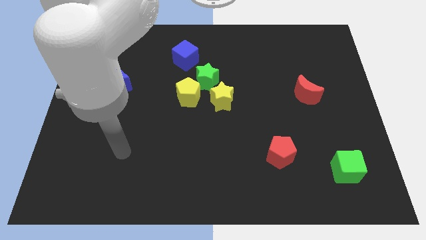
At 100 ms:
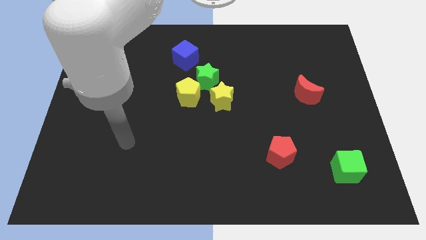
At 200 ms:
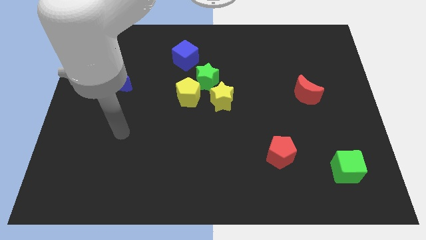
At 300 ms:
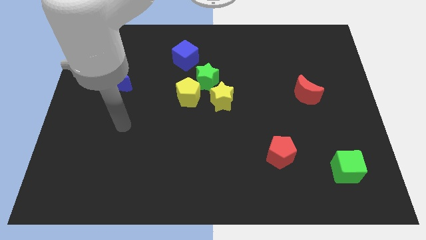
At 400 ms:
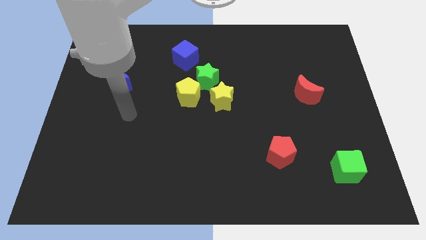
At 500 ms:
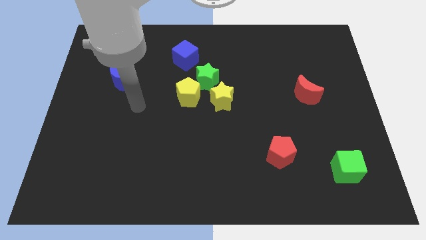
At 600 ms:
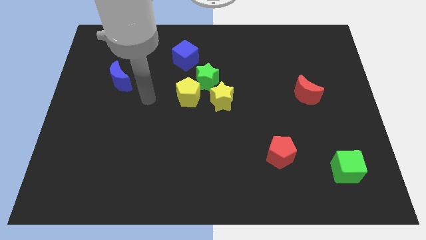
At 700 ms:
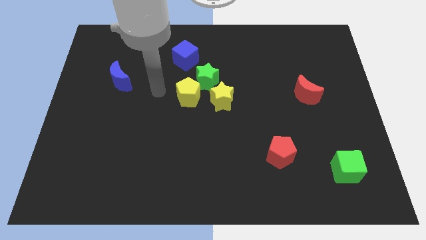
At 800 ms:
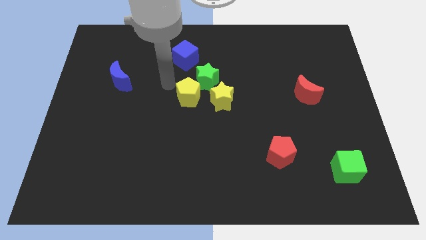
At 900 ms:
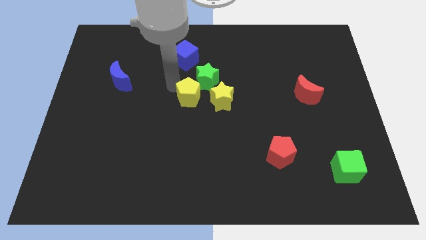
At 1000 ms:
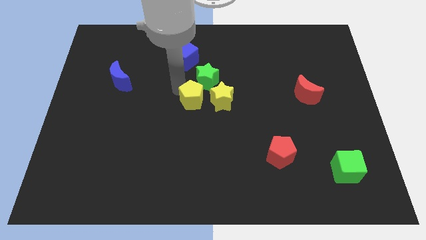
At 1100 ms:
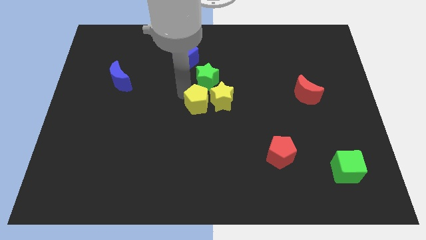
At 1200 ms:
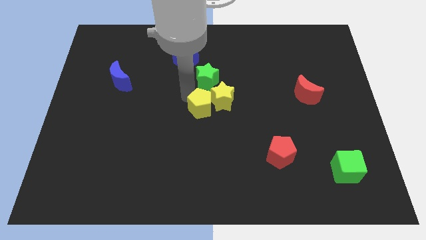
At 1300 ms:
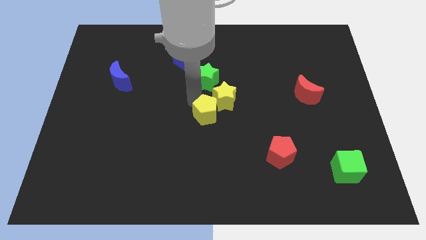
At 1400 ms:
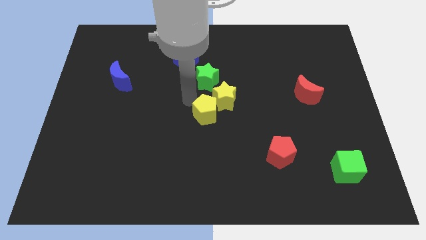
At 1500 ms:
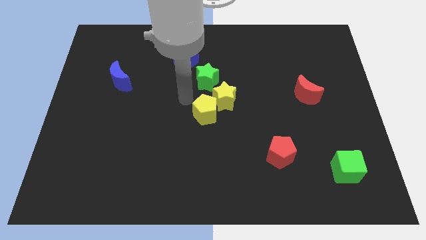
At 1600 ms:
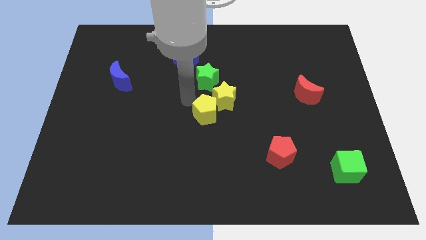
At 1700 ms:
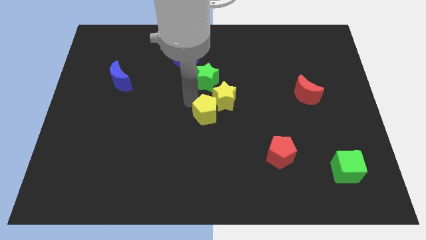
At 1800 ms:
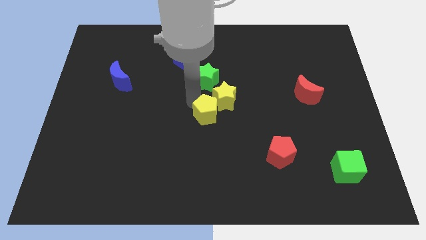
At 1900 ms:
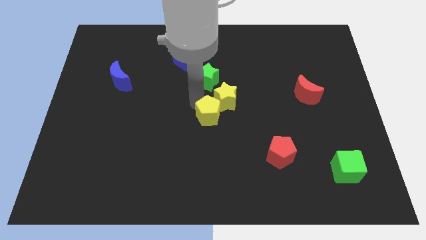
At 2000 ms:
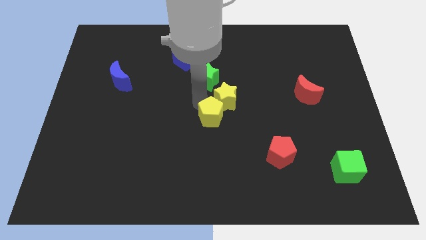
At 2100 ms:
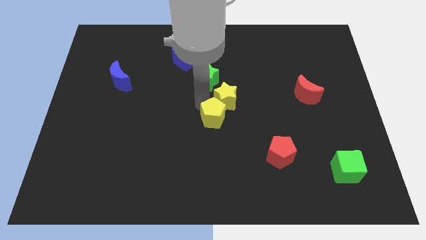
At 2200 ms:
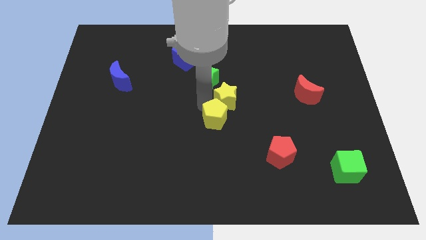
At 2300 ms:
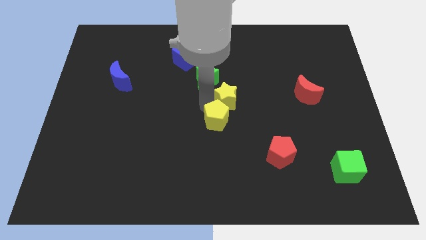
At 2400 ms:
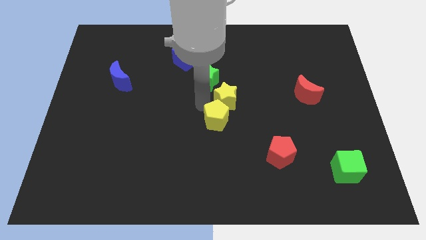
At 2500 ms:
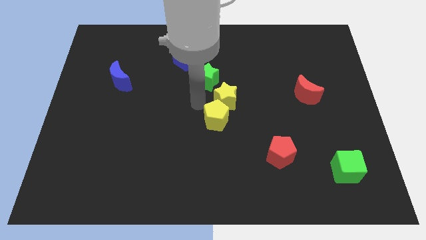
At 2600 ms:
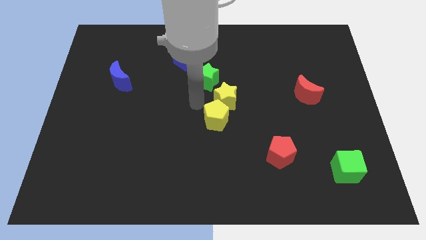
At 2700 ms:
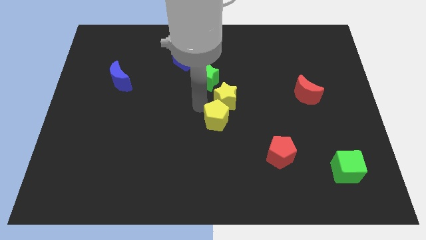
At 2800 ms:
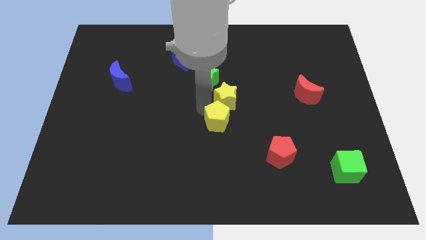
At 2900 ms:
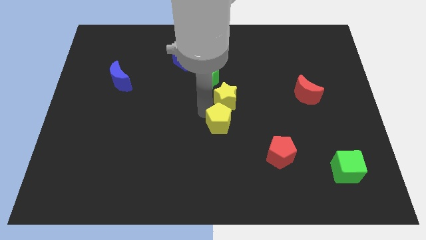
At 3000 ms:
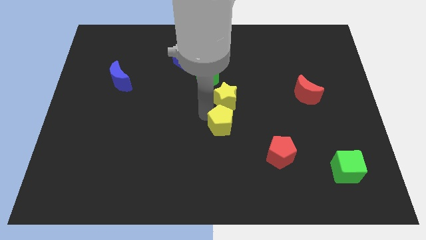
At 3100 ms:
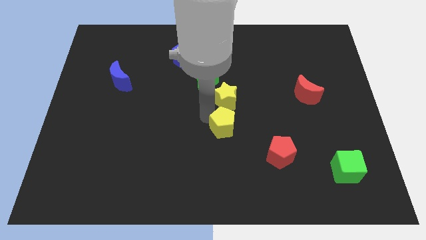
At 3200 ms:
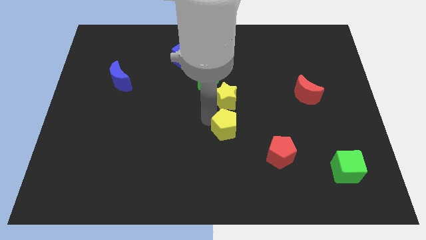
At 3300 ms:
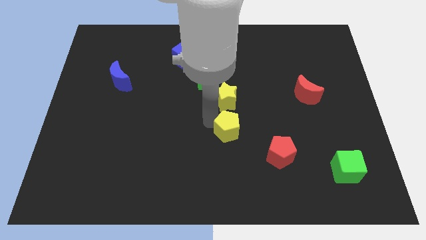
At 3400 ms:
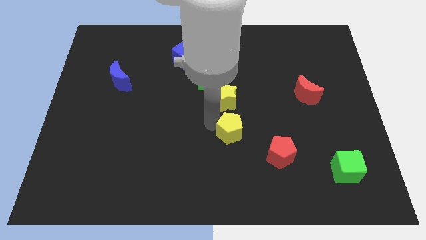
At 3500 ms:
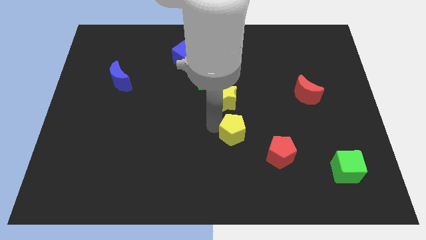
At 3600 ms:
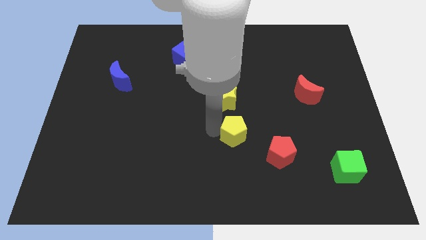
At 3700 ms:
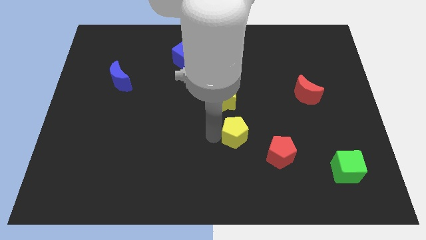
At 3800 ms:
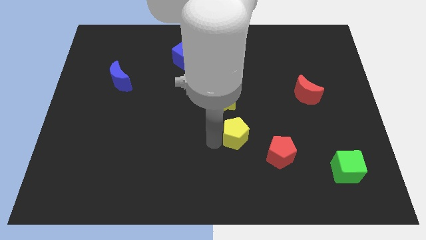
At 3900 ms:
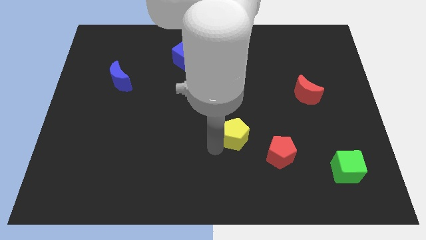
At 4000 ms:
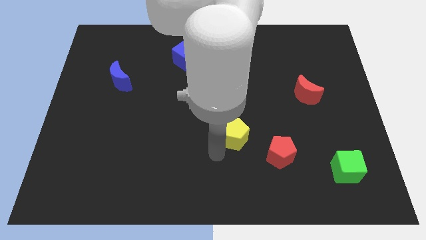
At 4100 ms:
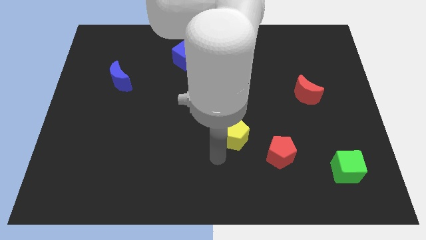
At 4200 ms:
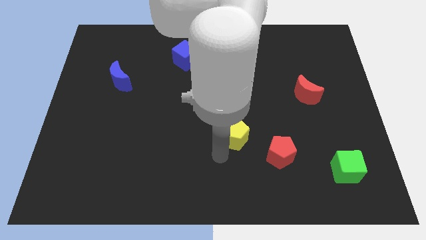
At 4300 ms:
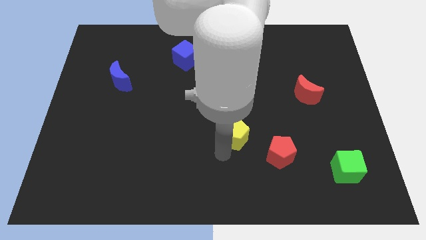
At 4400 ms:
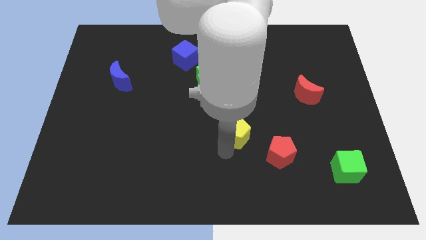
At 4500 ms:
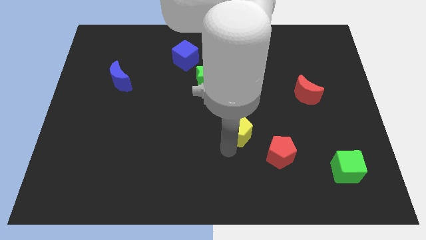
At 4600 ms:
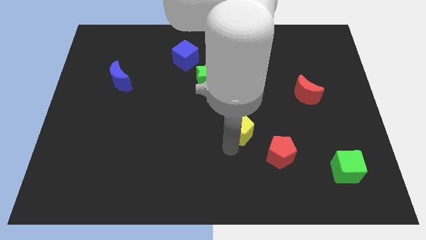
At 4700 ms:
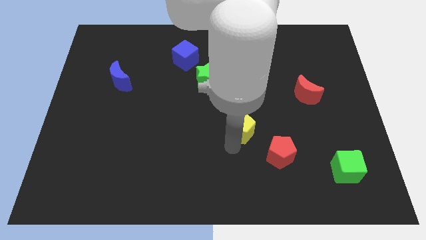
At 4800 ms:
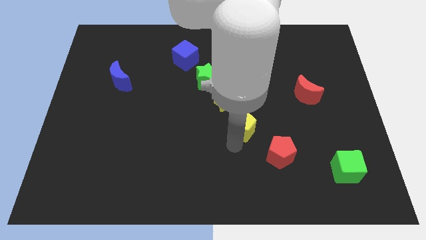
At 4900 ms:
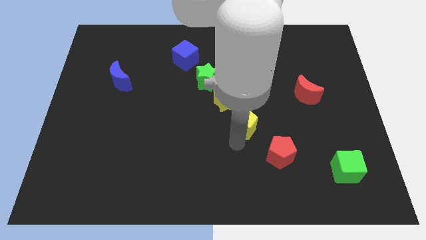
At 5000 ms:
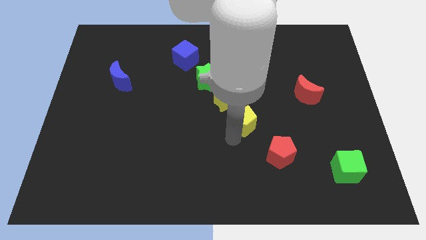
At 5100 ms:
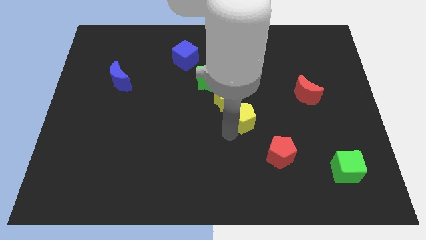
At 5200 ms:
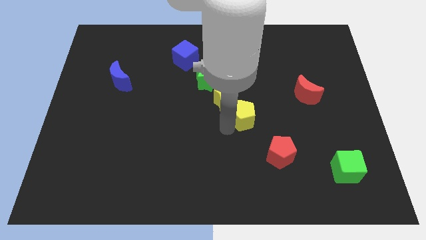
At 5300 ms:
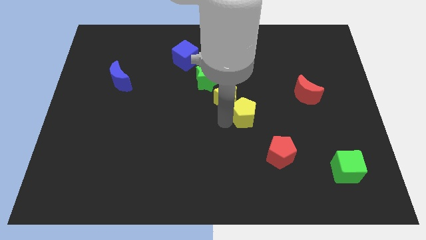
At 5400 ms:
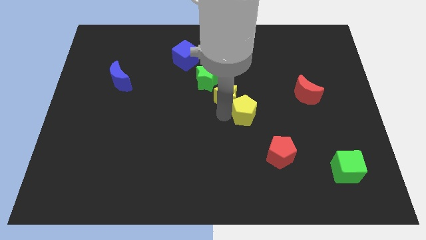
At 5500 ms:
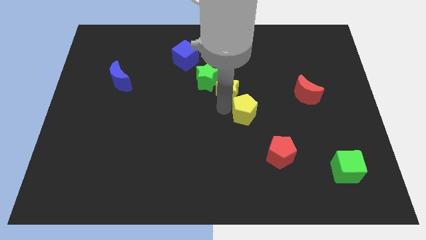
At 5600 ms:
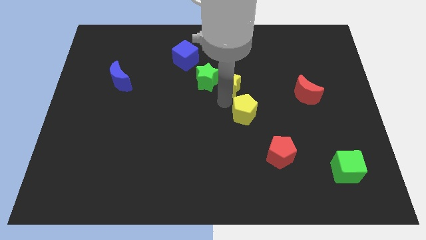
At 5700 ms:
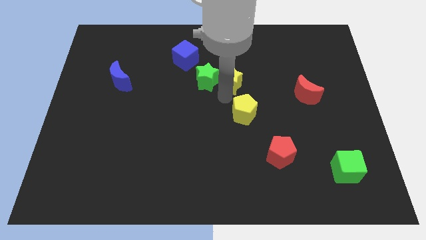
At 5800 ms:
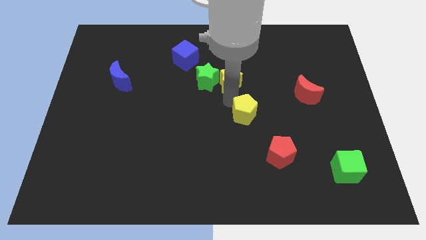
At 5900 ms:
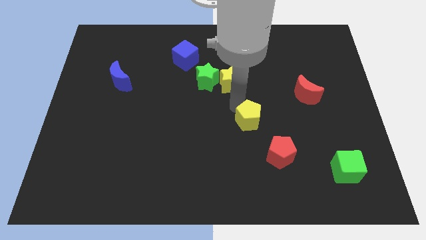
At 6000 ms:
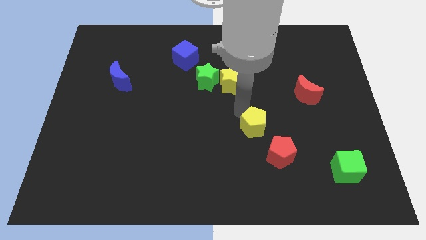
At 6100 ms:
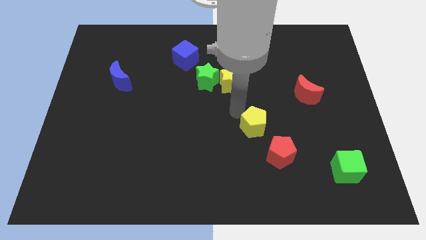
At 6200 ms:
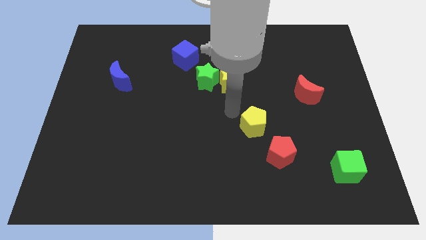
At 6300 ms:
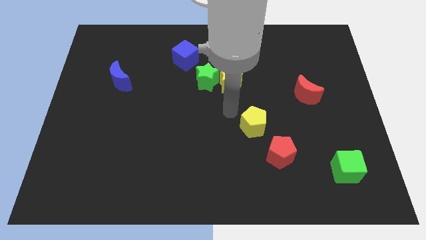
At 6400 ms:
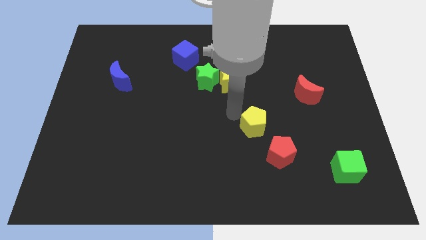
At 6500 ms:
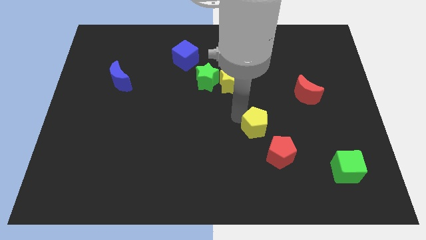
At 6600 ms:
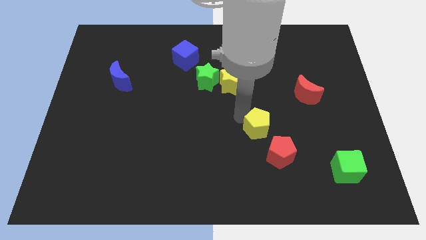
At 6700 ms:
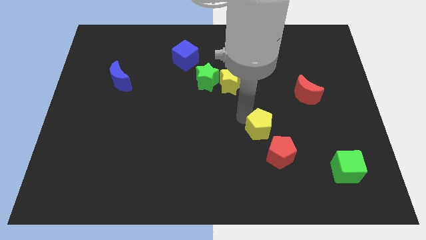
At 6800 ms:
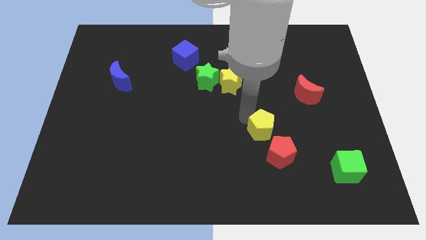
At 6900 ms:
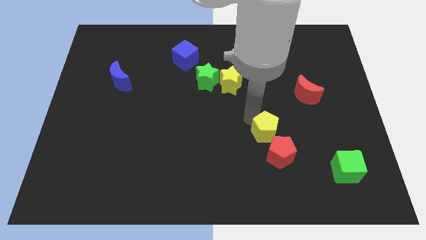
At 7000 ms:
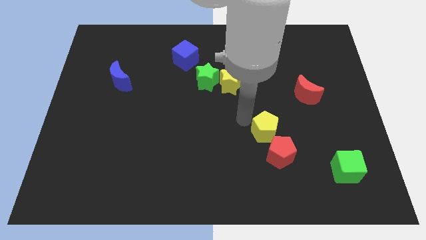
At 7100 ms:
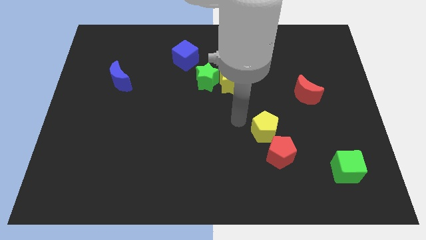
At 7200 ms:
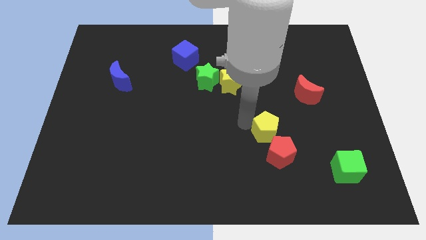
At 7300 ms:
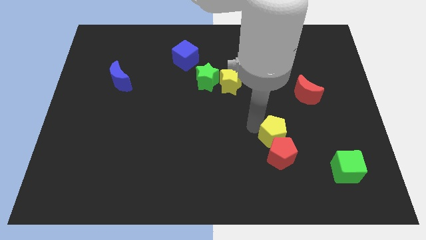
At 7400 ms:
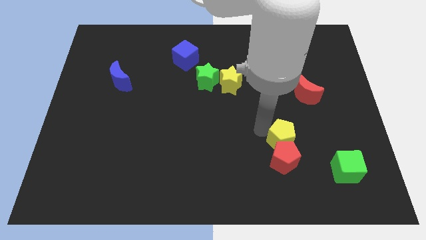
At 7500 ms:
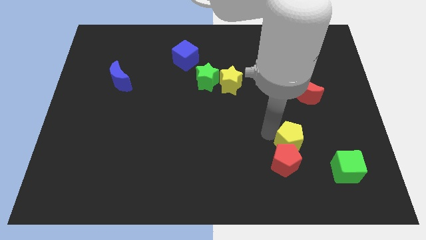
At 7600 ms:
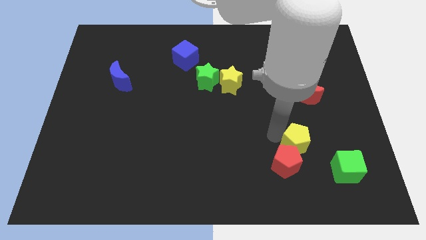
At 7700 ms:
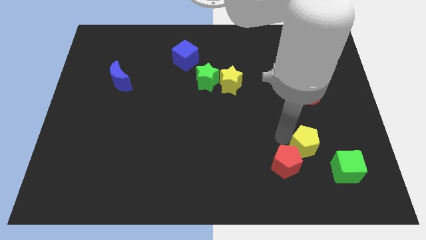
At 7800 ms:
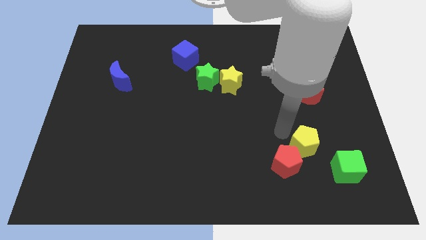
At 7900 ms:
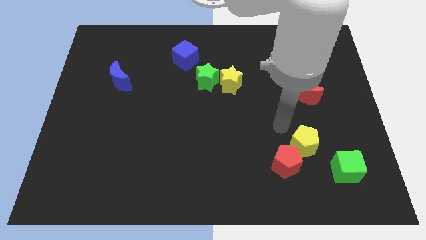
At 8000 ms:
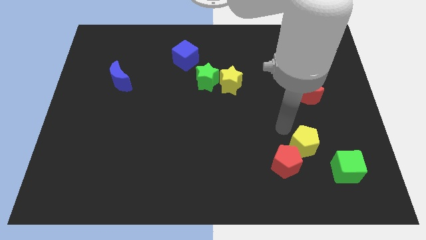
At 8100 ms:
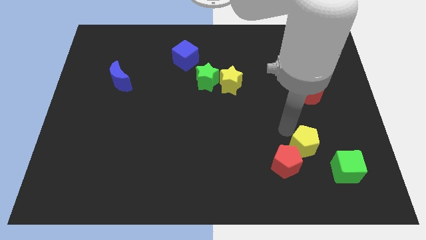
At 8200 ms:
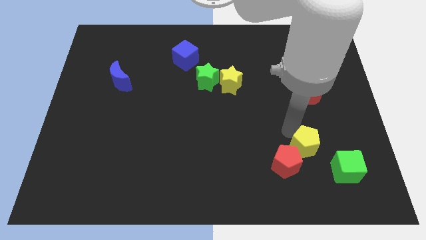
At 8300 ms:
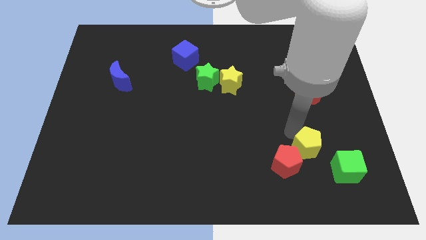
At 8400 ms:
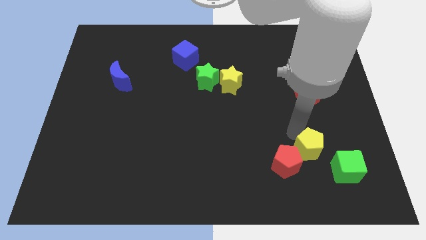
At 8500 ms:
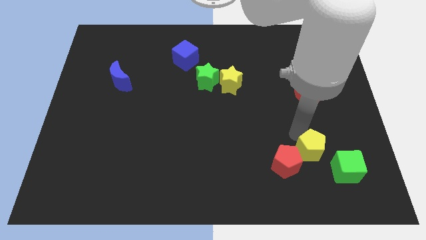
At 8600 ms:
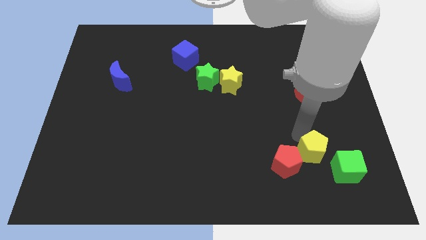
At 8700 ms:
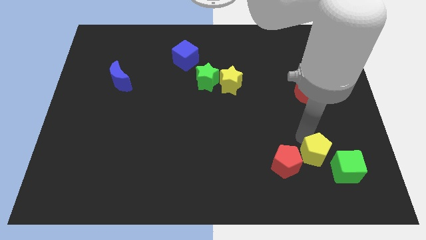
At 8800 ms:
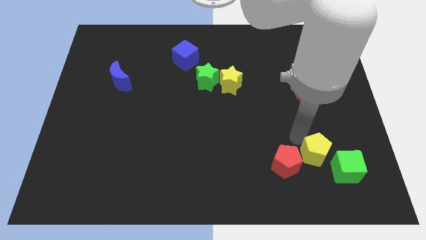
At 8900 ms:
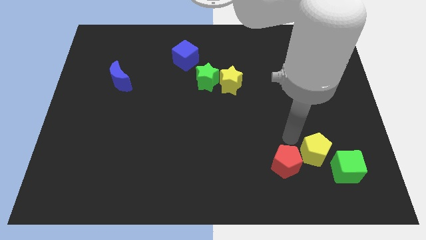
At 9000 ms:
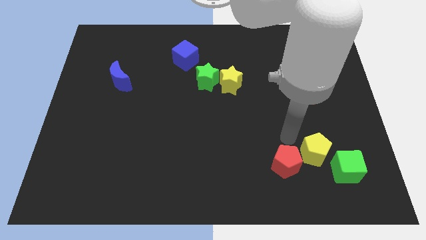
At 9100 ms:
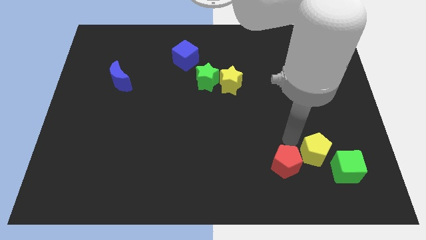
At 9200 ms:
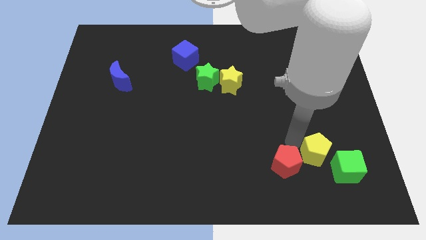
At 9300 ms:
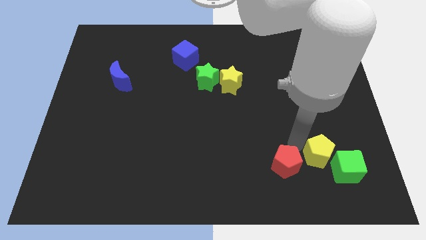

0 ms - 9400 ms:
move the yellow pentagon towards the green cube
